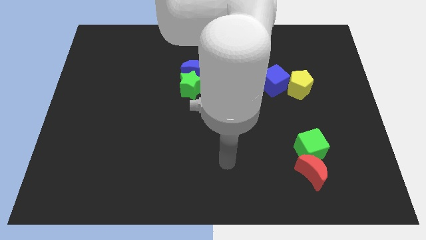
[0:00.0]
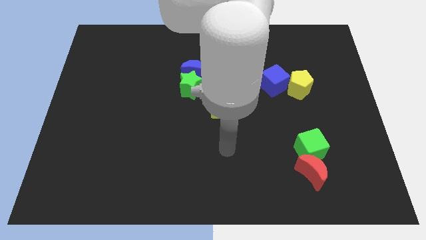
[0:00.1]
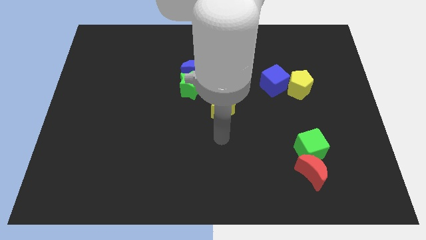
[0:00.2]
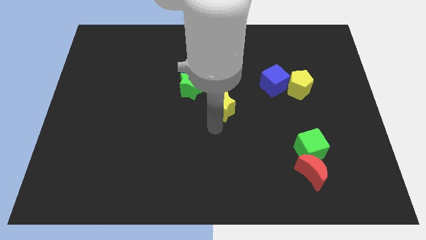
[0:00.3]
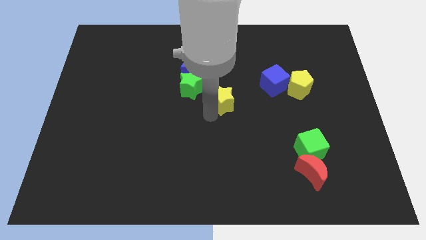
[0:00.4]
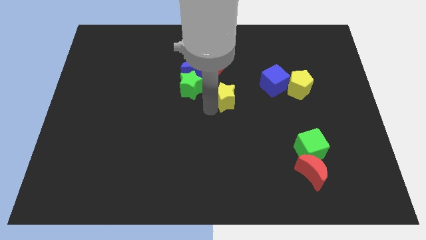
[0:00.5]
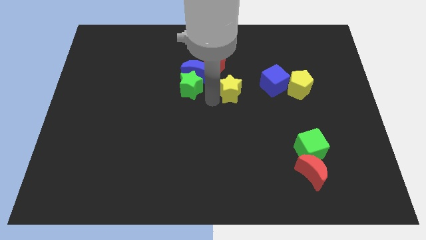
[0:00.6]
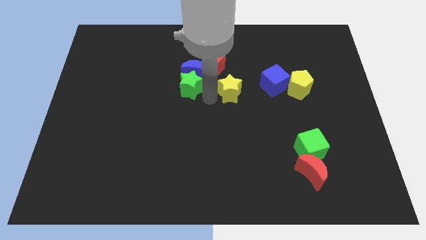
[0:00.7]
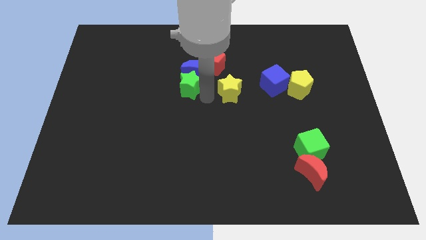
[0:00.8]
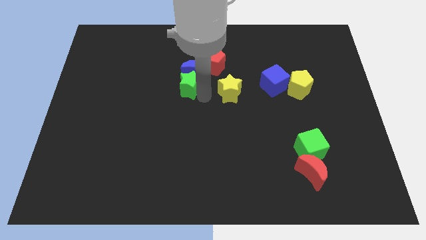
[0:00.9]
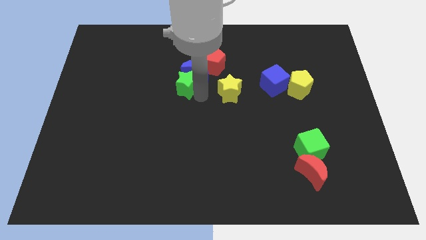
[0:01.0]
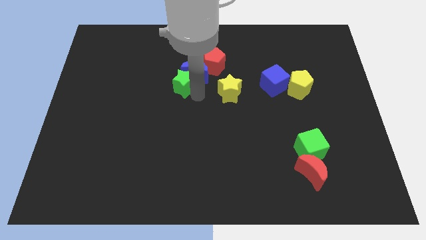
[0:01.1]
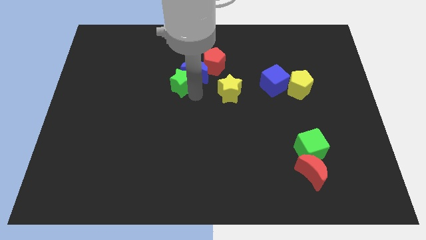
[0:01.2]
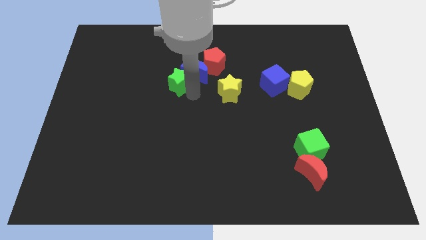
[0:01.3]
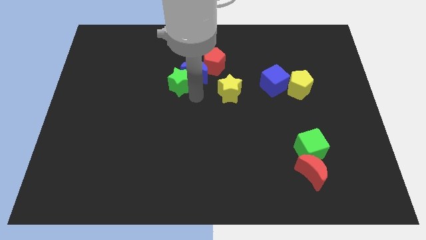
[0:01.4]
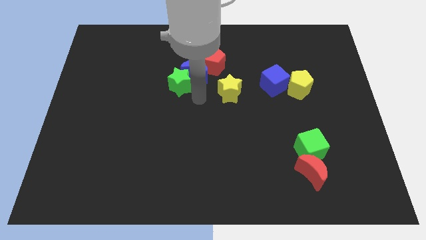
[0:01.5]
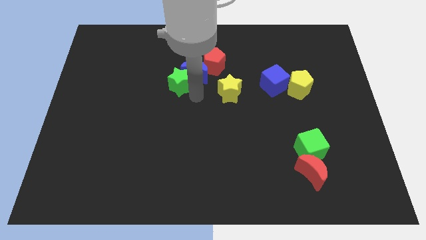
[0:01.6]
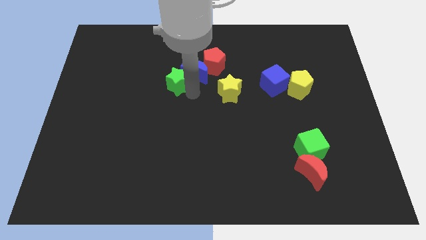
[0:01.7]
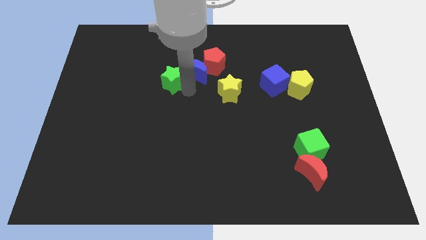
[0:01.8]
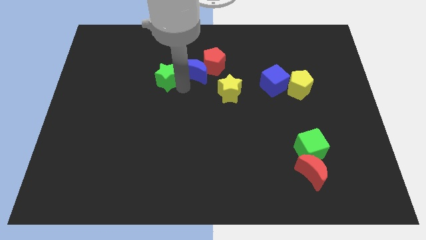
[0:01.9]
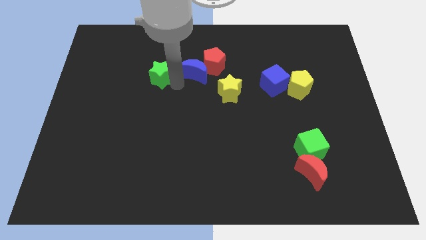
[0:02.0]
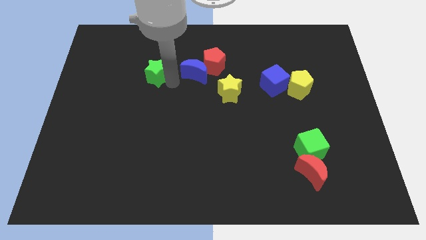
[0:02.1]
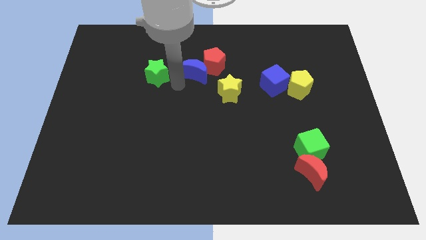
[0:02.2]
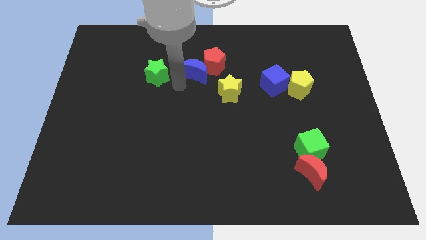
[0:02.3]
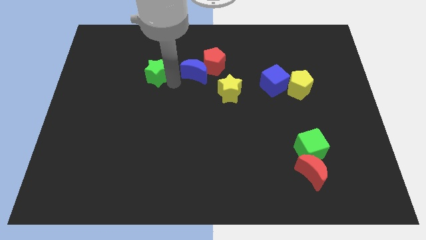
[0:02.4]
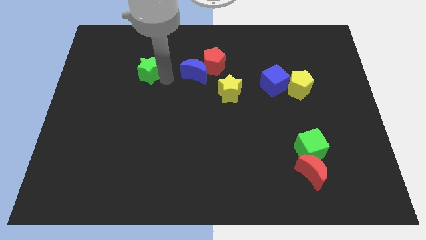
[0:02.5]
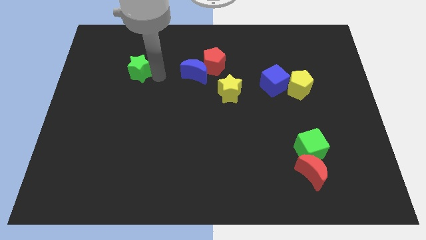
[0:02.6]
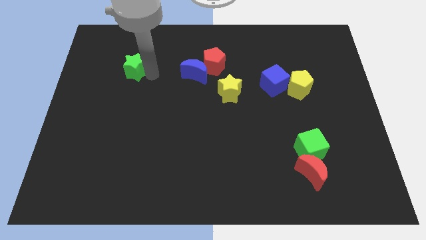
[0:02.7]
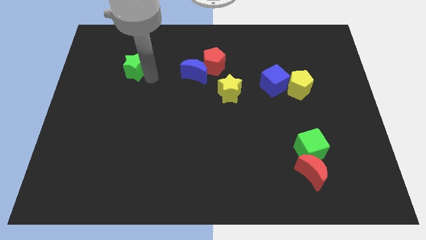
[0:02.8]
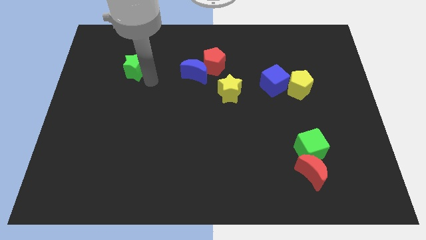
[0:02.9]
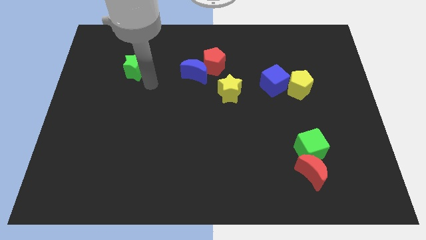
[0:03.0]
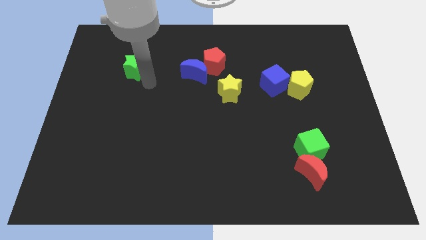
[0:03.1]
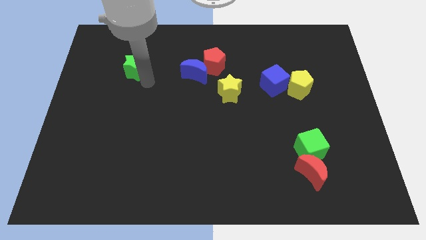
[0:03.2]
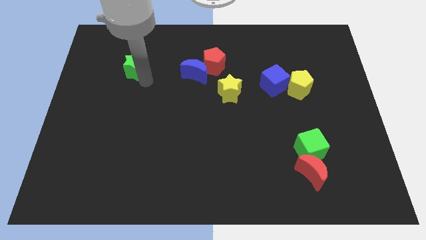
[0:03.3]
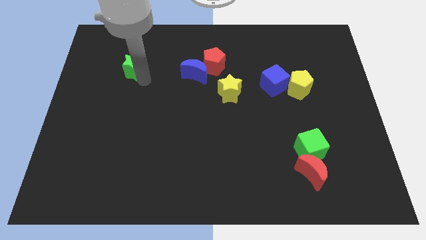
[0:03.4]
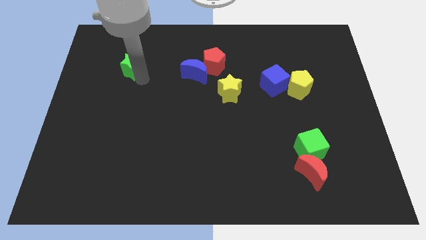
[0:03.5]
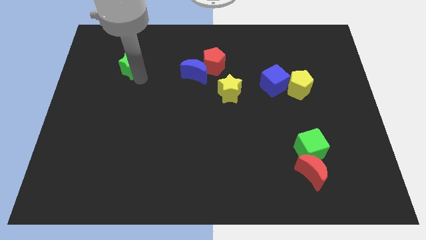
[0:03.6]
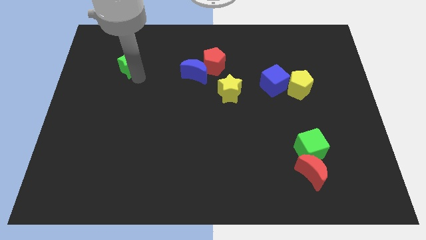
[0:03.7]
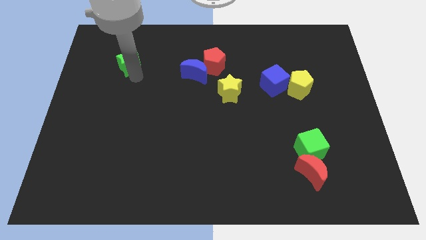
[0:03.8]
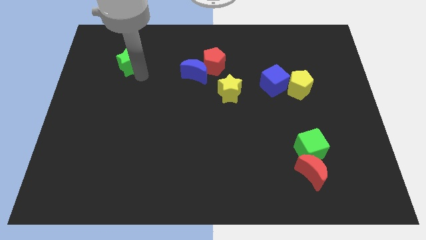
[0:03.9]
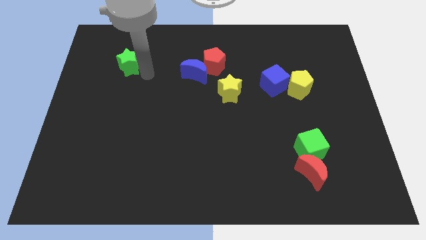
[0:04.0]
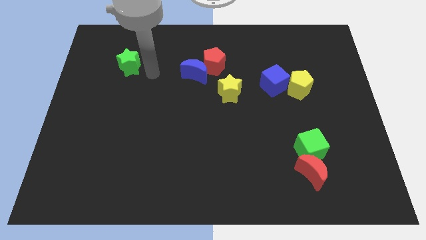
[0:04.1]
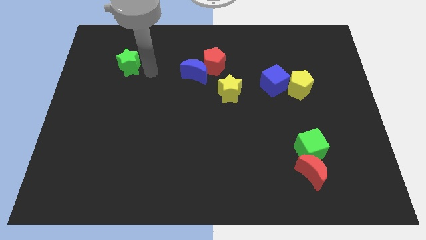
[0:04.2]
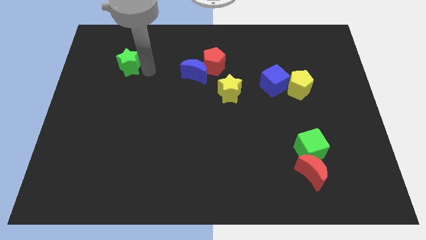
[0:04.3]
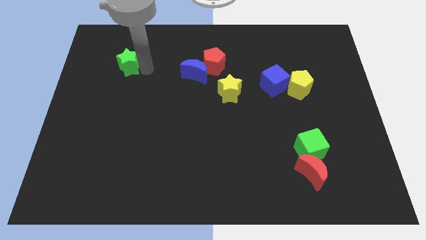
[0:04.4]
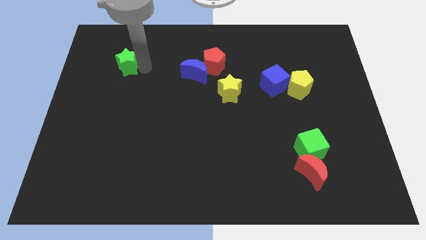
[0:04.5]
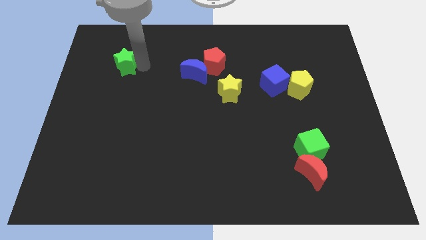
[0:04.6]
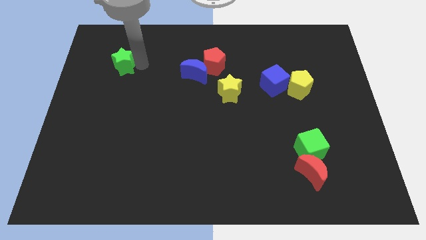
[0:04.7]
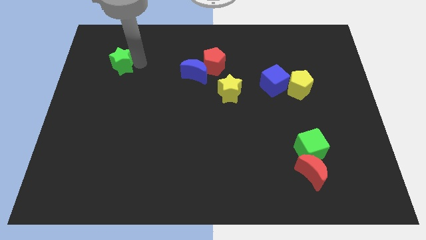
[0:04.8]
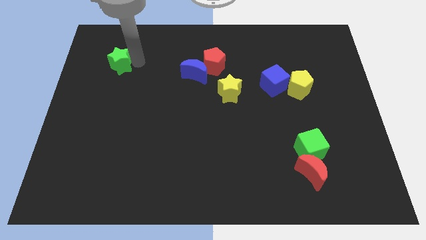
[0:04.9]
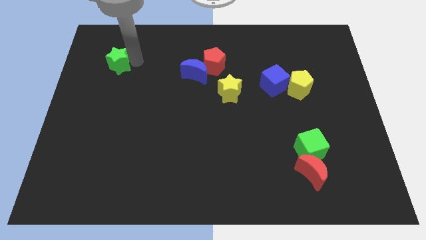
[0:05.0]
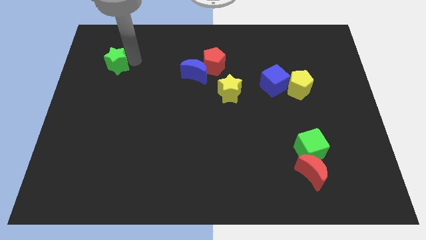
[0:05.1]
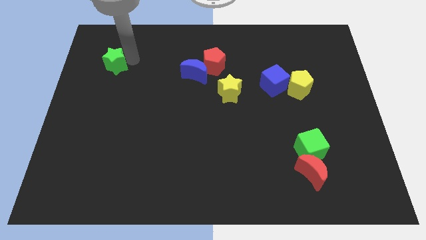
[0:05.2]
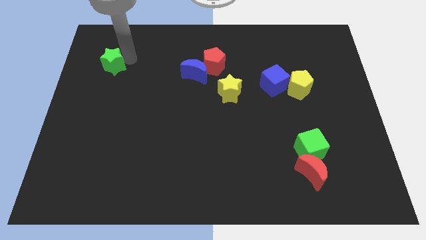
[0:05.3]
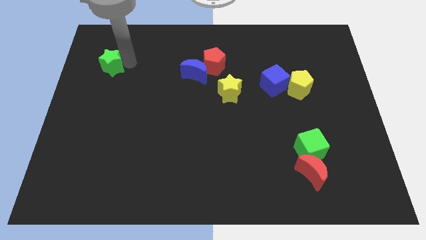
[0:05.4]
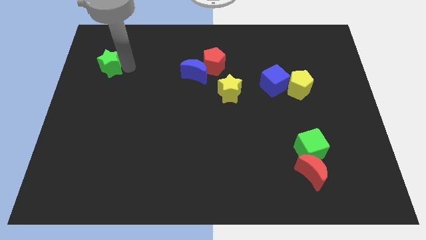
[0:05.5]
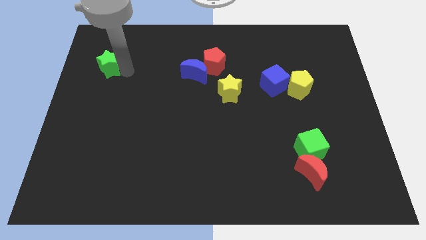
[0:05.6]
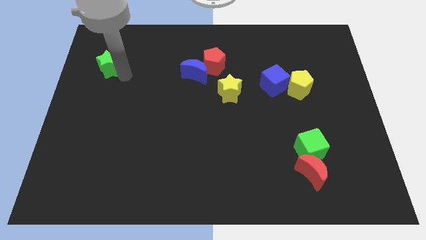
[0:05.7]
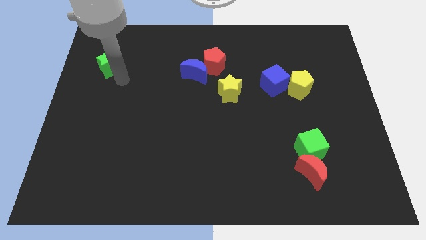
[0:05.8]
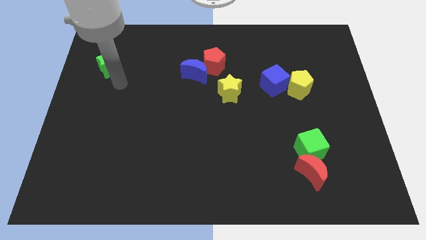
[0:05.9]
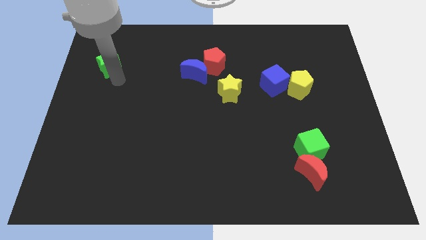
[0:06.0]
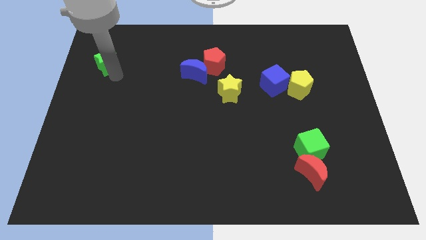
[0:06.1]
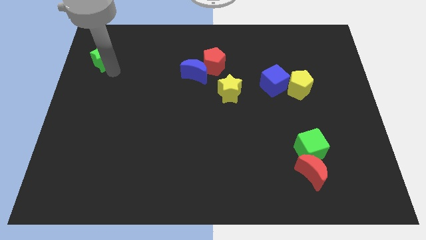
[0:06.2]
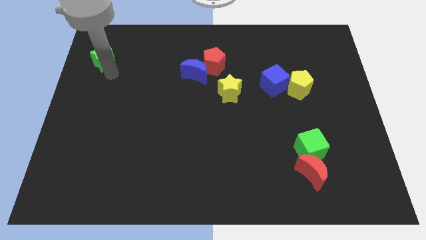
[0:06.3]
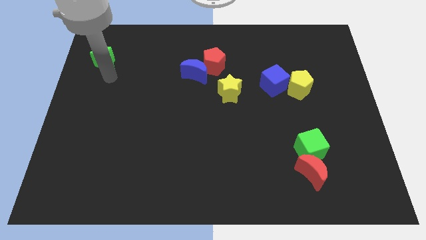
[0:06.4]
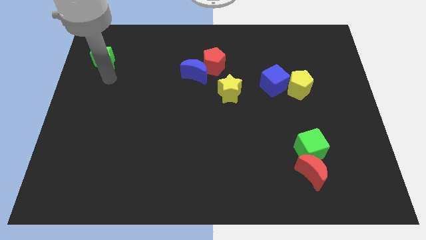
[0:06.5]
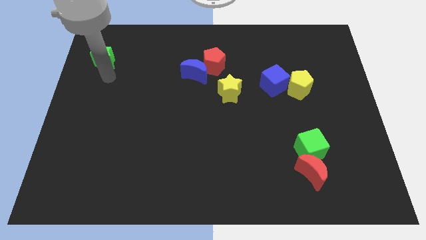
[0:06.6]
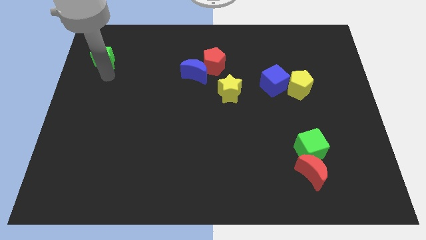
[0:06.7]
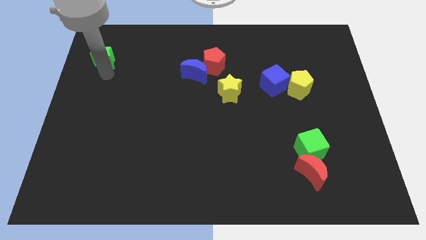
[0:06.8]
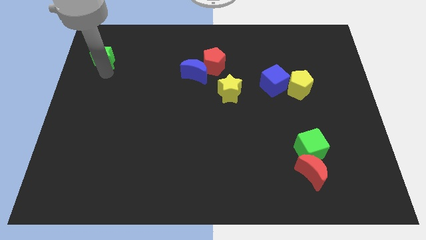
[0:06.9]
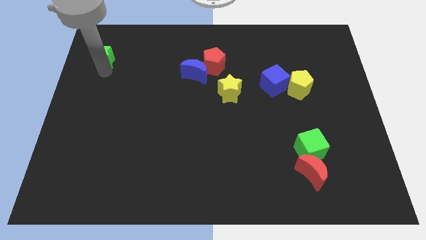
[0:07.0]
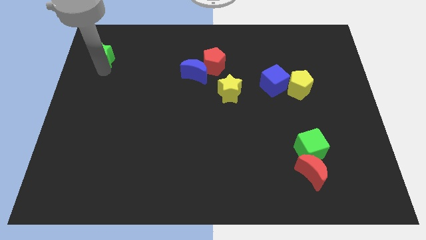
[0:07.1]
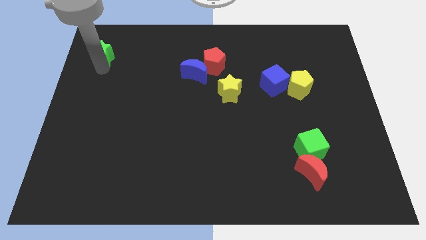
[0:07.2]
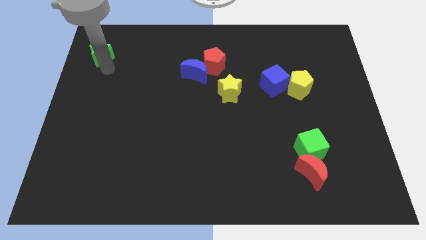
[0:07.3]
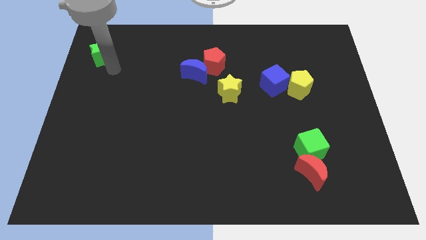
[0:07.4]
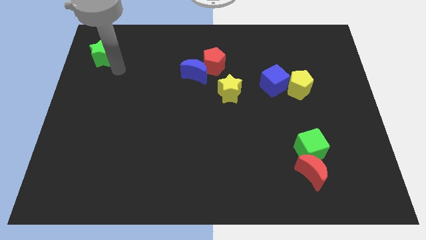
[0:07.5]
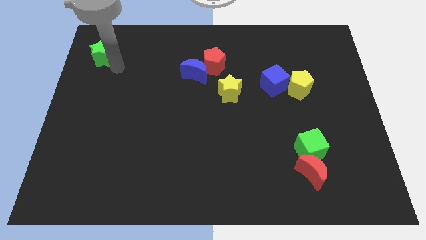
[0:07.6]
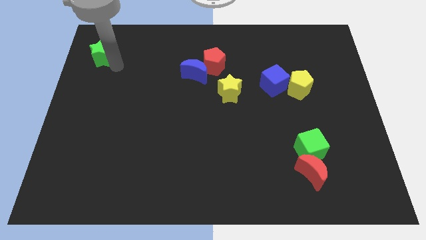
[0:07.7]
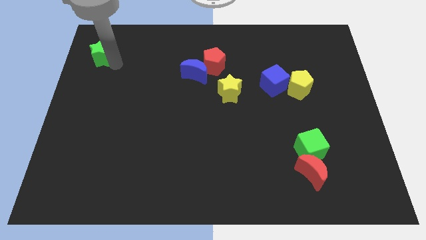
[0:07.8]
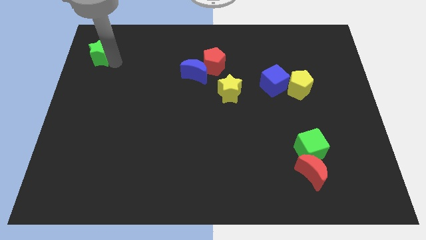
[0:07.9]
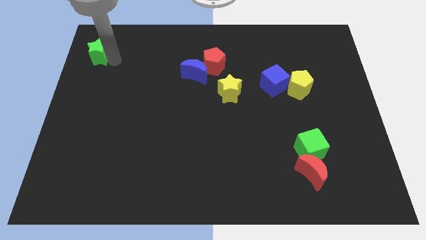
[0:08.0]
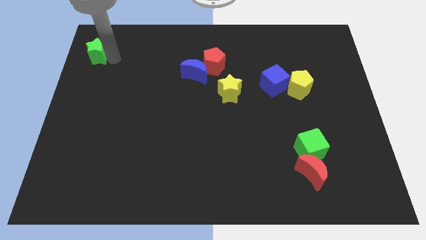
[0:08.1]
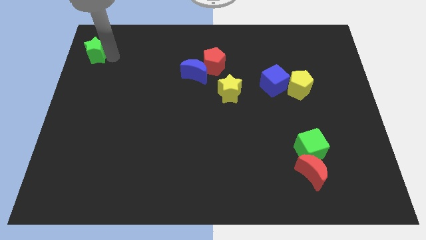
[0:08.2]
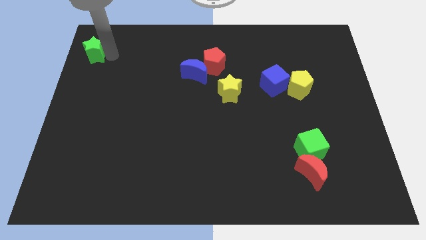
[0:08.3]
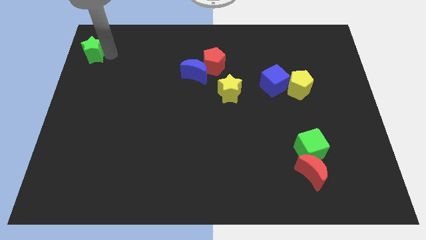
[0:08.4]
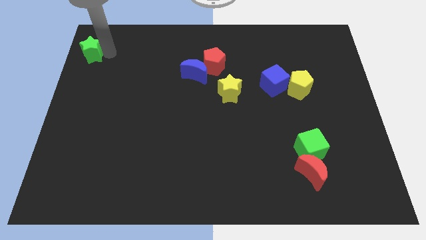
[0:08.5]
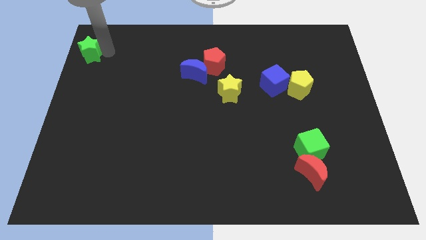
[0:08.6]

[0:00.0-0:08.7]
slide the green star to the top left
